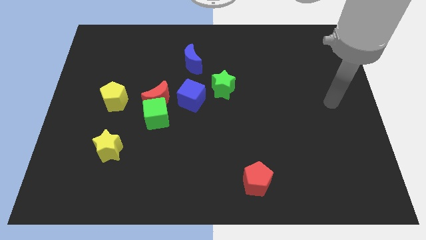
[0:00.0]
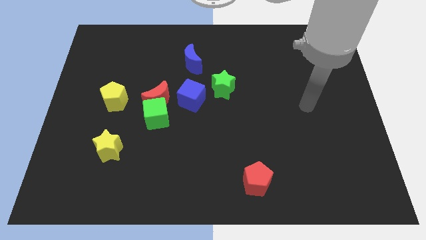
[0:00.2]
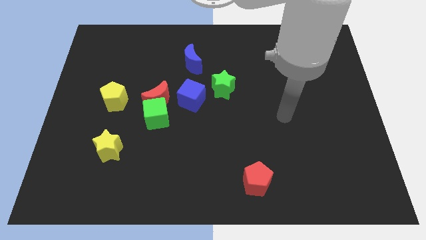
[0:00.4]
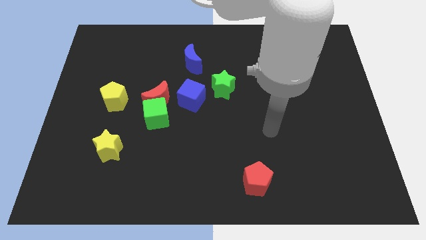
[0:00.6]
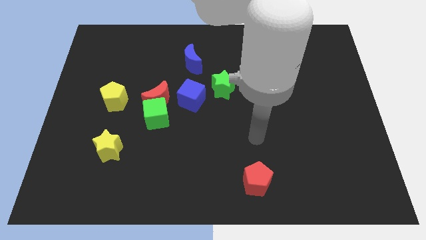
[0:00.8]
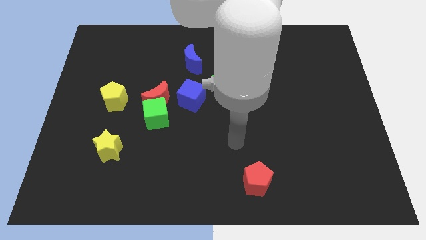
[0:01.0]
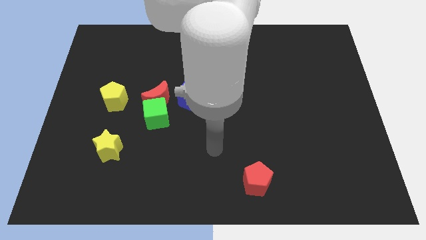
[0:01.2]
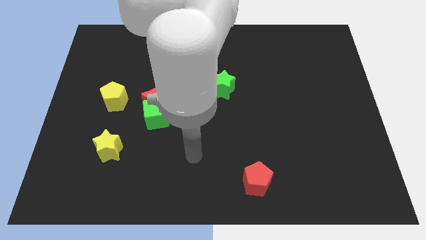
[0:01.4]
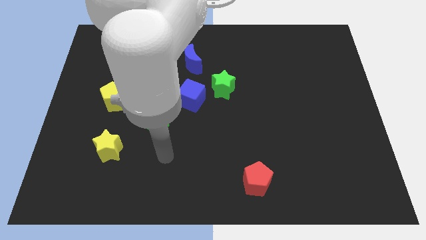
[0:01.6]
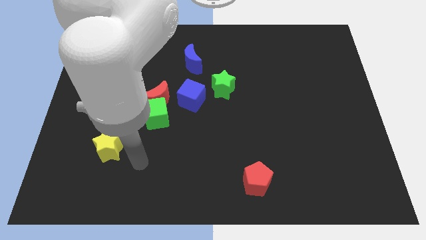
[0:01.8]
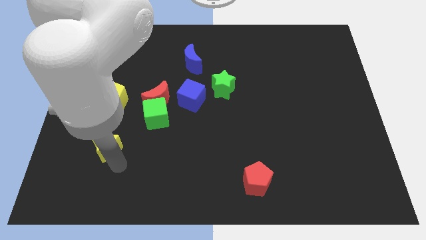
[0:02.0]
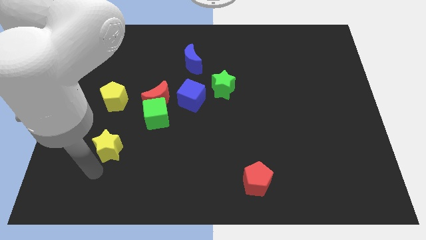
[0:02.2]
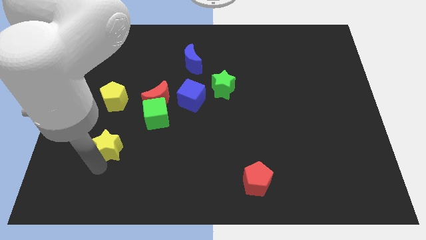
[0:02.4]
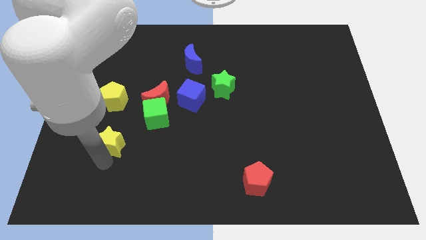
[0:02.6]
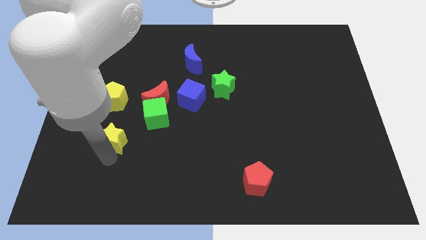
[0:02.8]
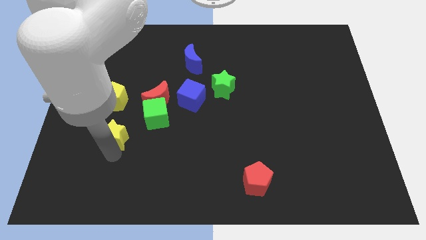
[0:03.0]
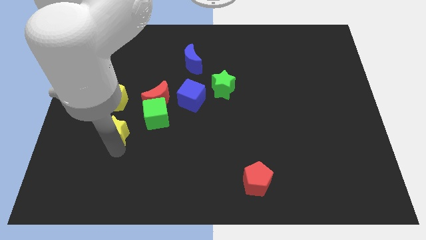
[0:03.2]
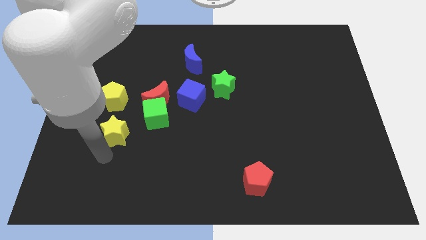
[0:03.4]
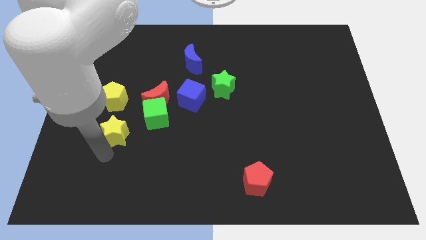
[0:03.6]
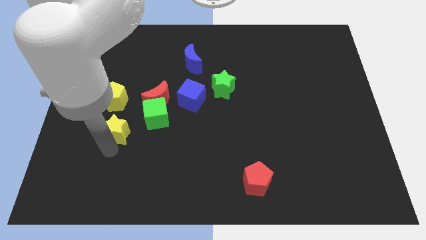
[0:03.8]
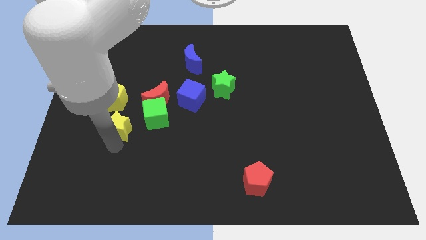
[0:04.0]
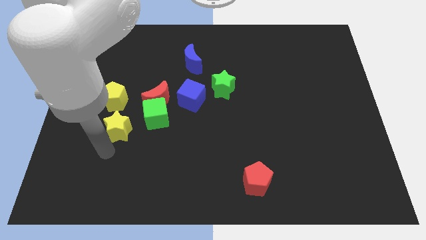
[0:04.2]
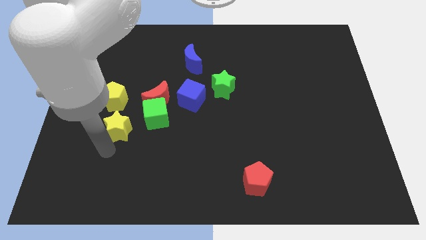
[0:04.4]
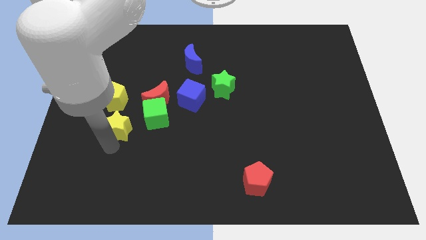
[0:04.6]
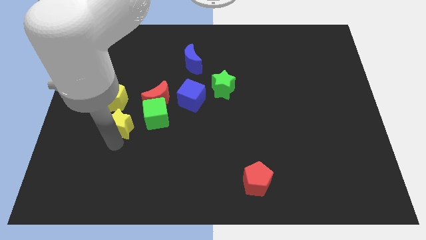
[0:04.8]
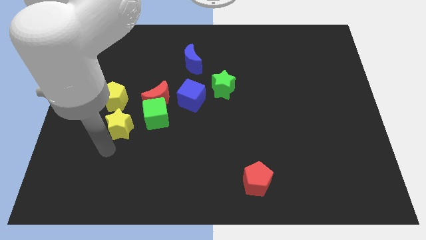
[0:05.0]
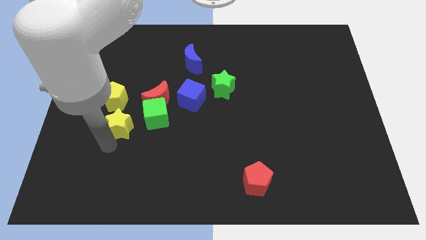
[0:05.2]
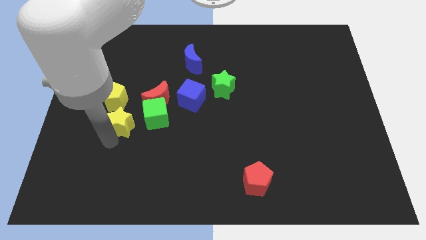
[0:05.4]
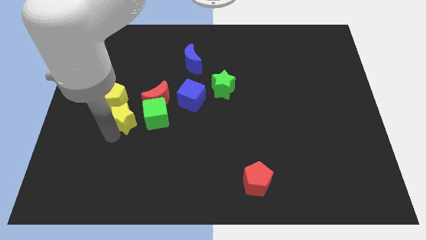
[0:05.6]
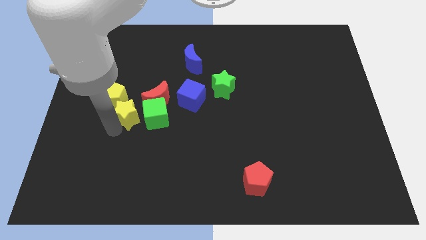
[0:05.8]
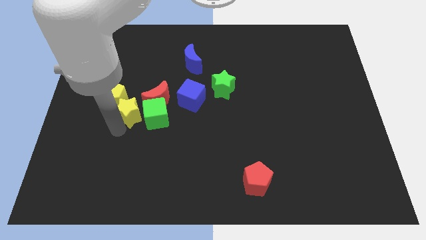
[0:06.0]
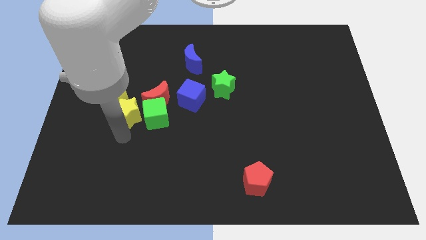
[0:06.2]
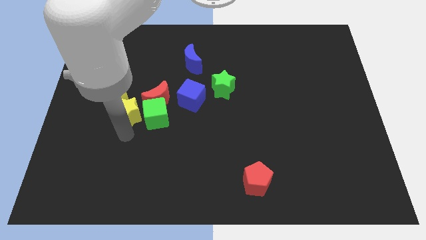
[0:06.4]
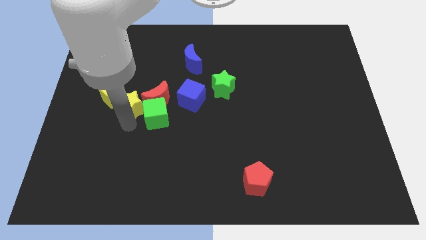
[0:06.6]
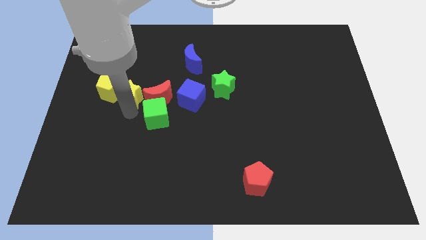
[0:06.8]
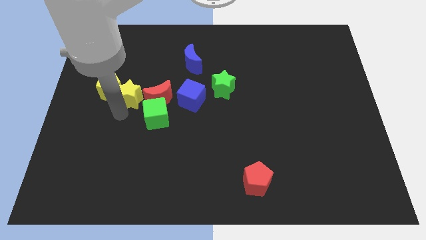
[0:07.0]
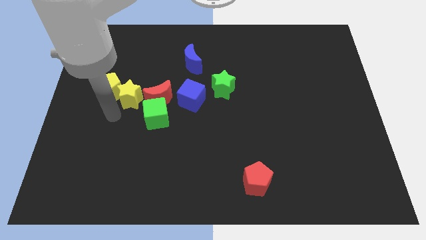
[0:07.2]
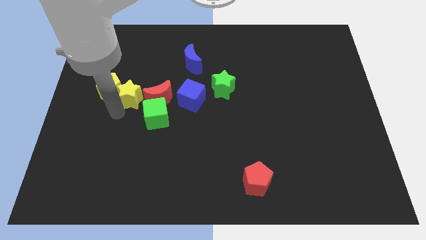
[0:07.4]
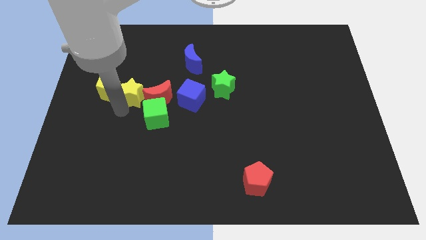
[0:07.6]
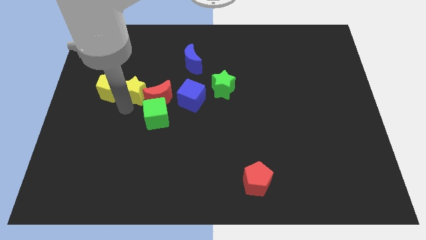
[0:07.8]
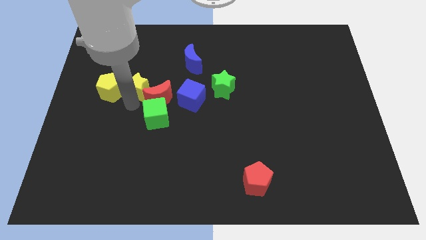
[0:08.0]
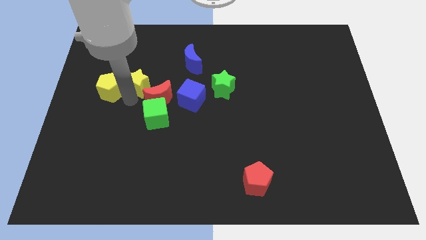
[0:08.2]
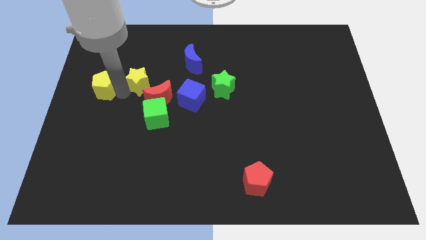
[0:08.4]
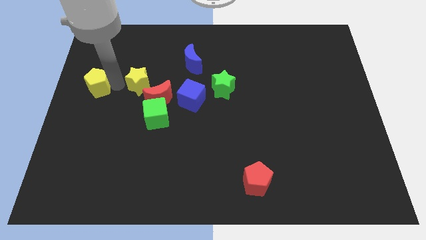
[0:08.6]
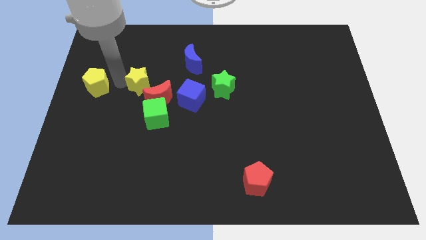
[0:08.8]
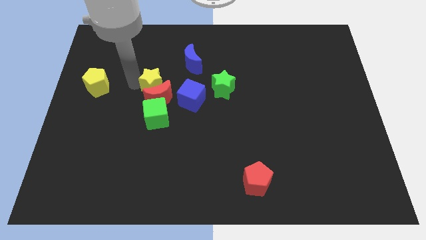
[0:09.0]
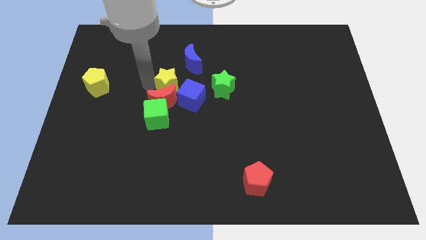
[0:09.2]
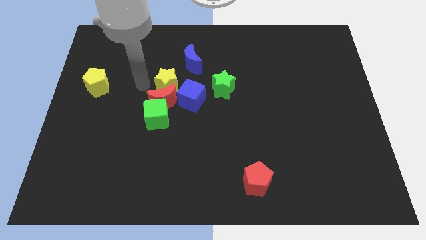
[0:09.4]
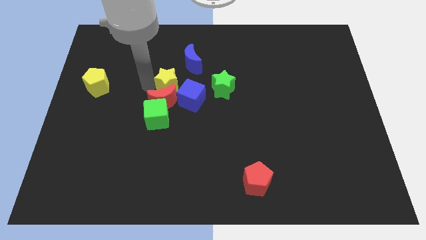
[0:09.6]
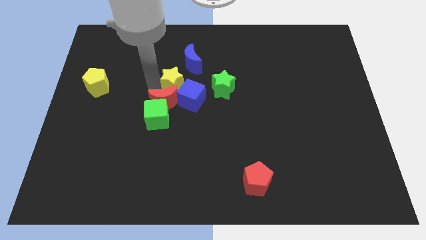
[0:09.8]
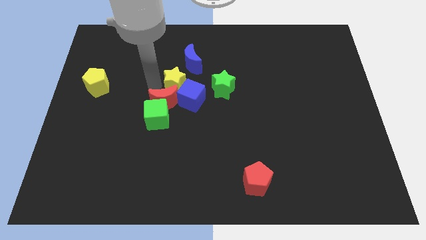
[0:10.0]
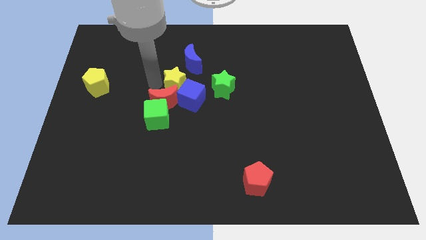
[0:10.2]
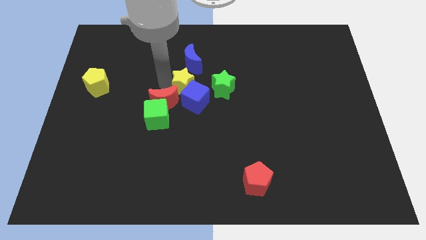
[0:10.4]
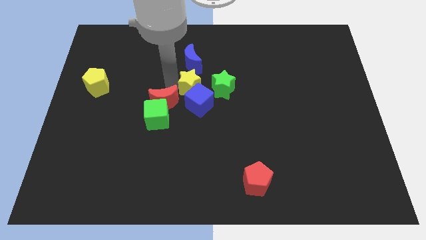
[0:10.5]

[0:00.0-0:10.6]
move the yellow star to the top left of the green star

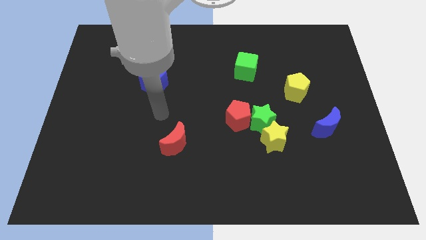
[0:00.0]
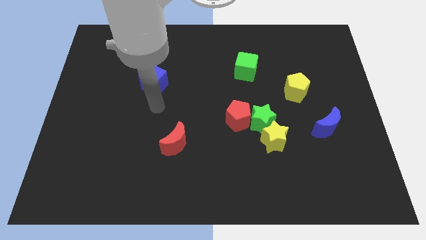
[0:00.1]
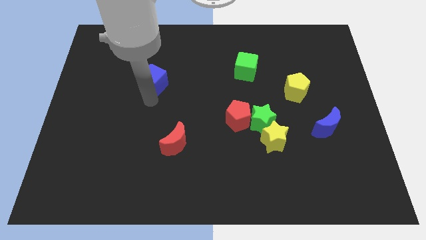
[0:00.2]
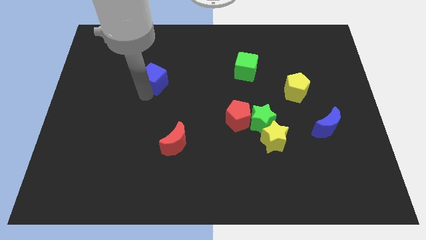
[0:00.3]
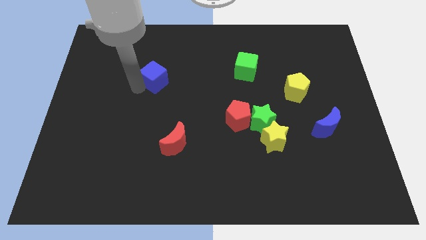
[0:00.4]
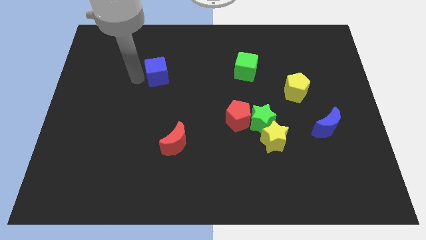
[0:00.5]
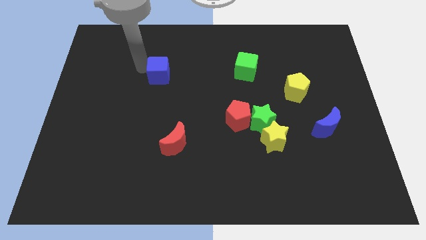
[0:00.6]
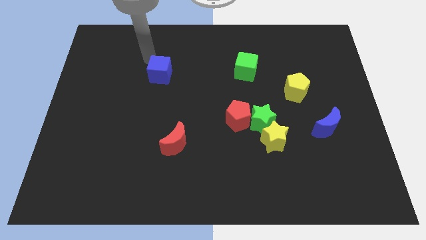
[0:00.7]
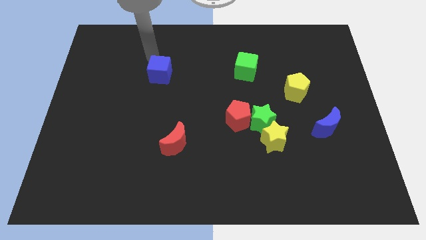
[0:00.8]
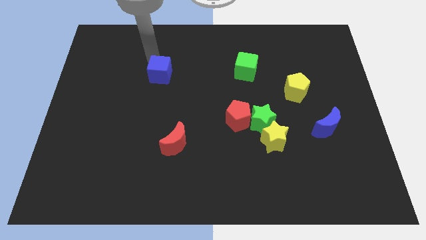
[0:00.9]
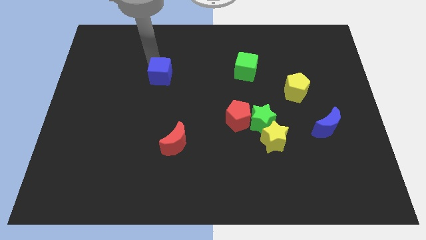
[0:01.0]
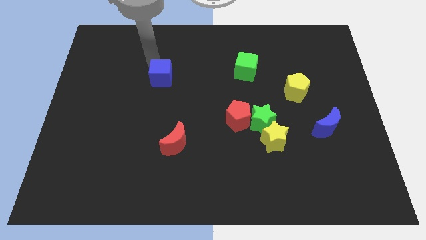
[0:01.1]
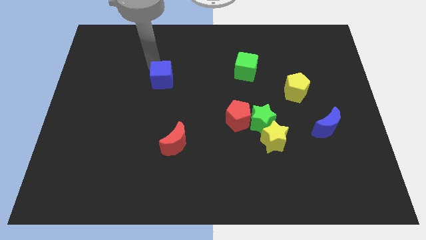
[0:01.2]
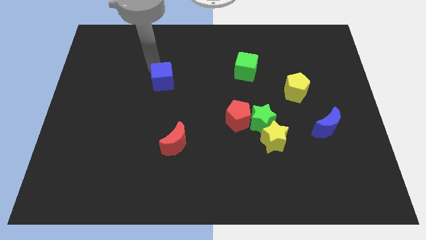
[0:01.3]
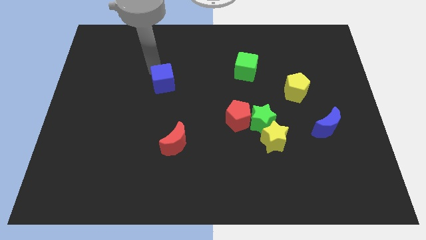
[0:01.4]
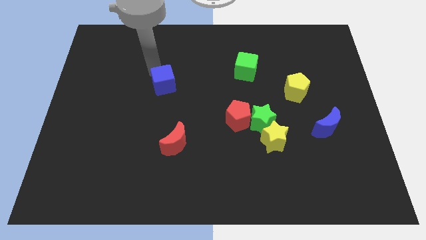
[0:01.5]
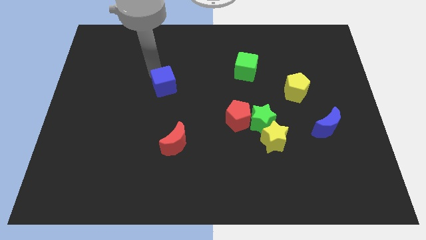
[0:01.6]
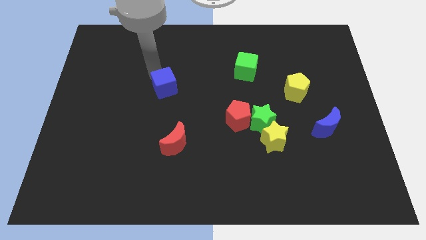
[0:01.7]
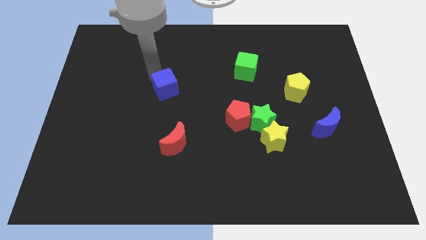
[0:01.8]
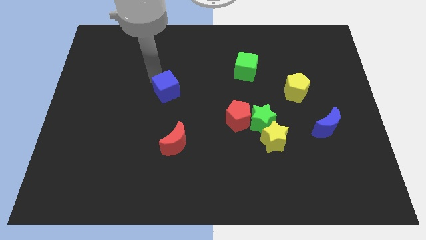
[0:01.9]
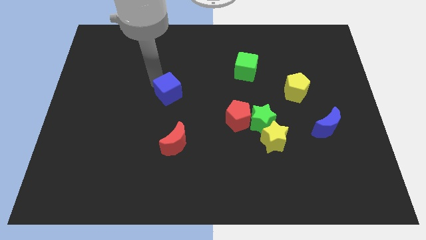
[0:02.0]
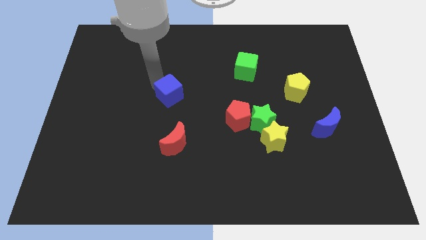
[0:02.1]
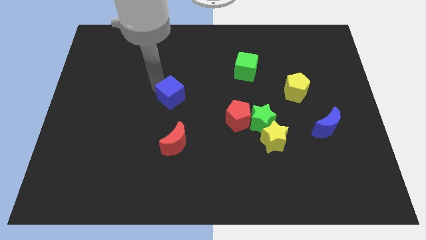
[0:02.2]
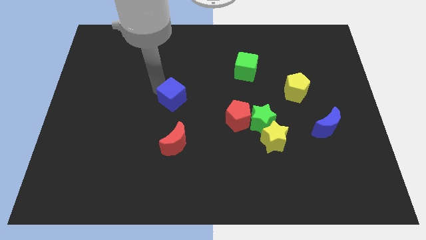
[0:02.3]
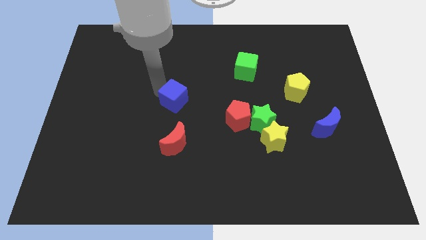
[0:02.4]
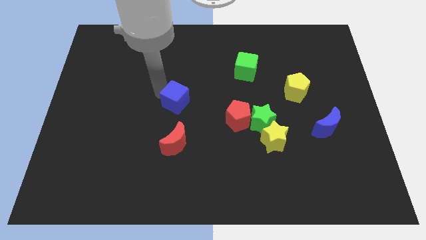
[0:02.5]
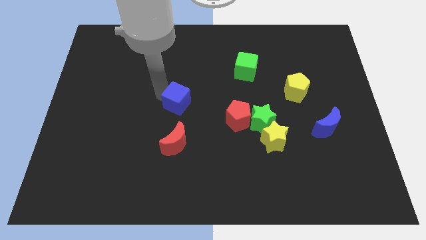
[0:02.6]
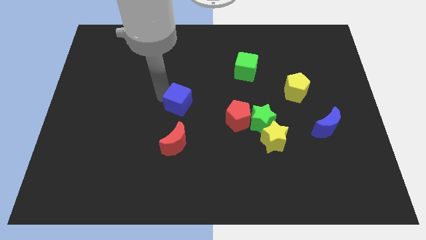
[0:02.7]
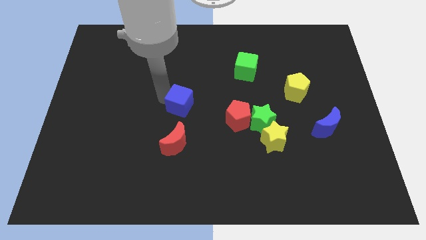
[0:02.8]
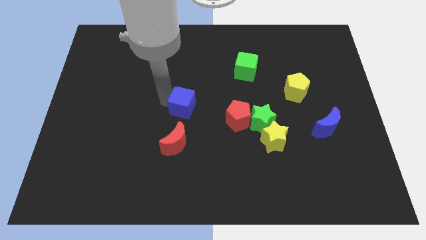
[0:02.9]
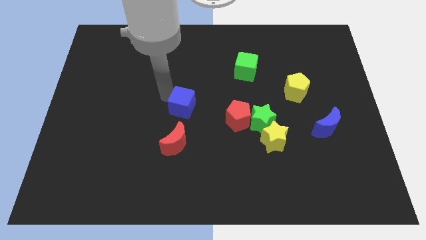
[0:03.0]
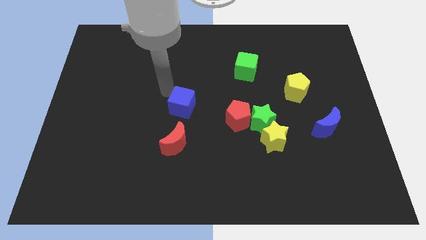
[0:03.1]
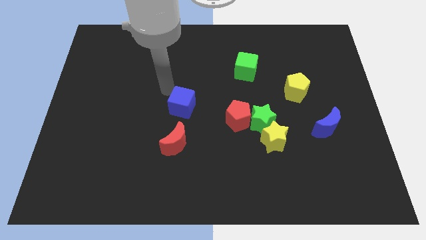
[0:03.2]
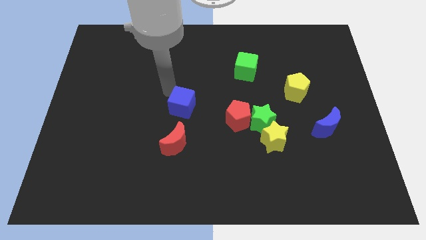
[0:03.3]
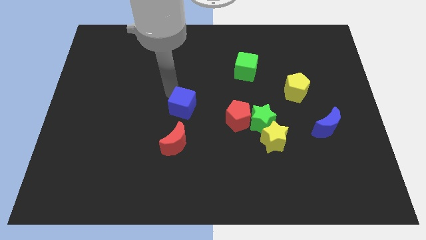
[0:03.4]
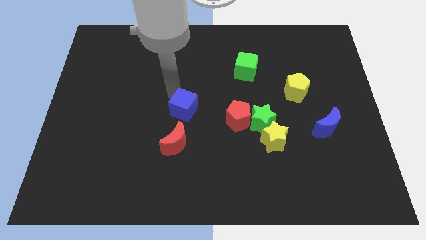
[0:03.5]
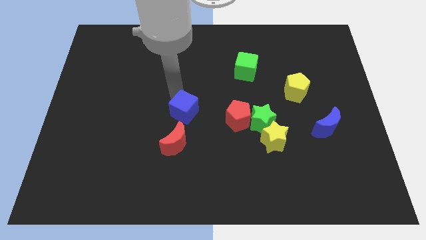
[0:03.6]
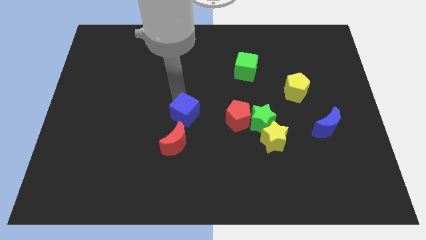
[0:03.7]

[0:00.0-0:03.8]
slide the blue cube to the top right of the red moon
